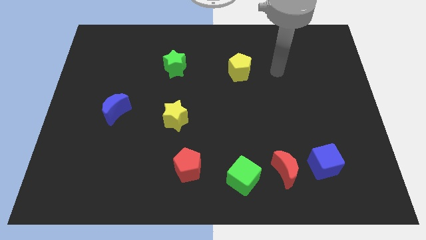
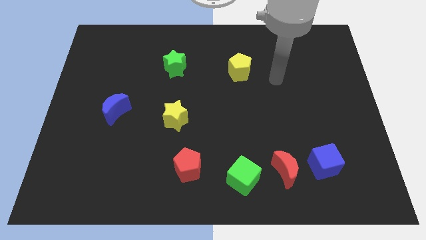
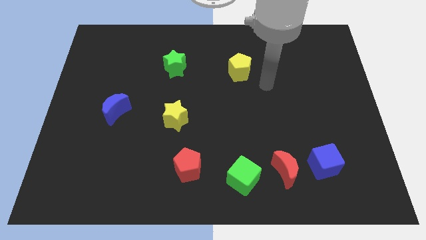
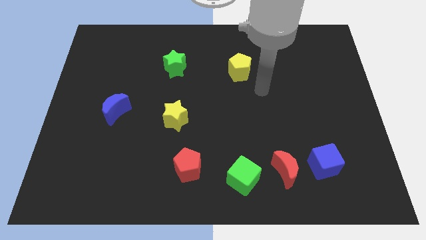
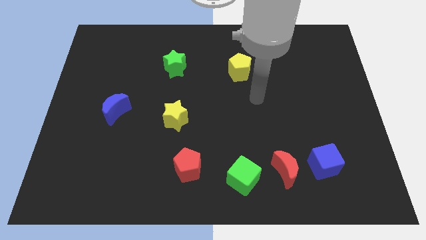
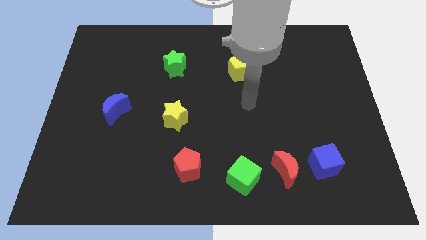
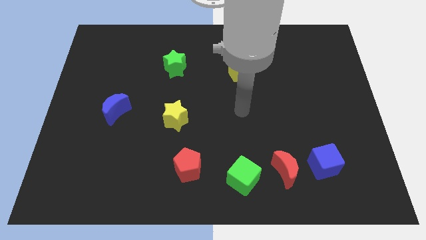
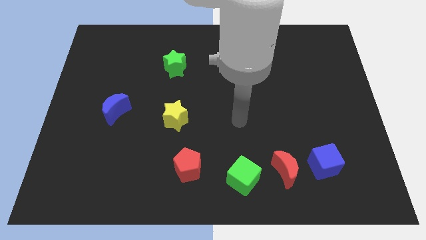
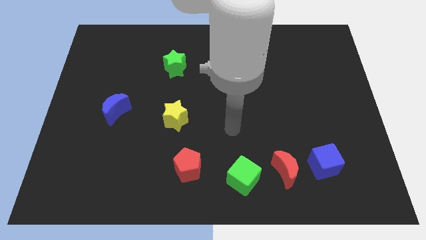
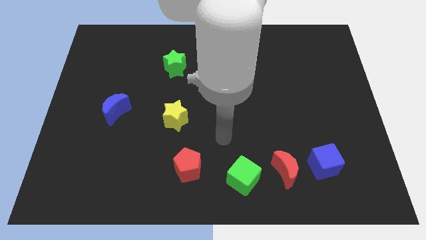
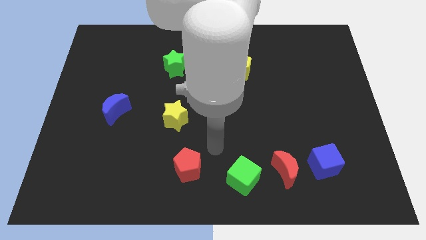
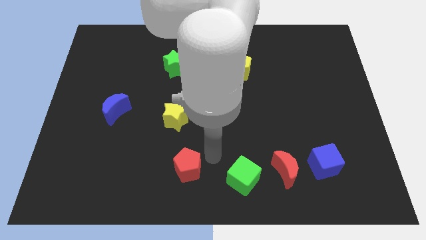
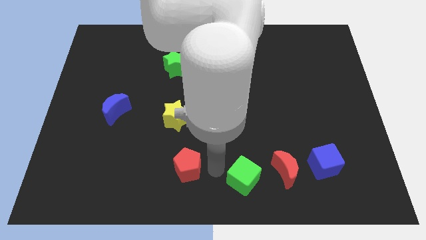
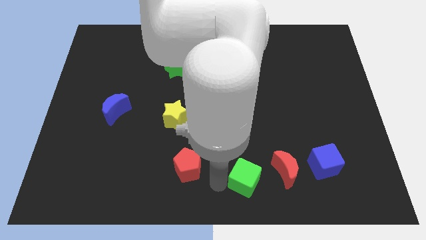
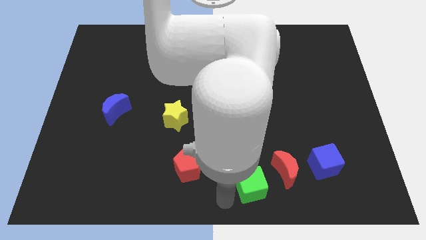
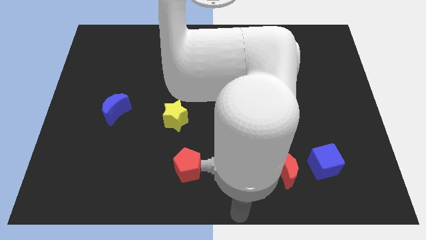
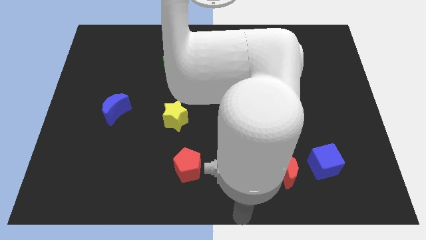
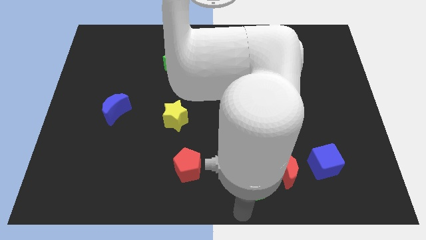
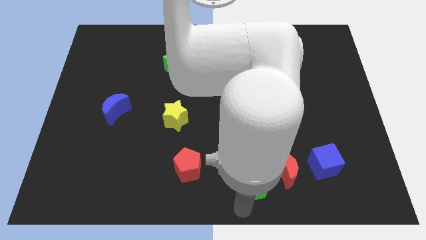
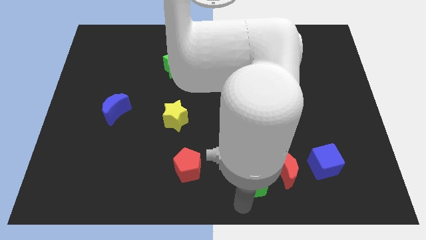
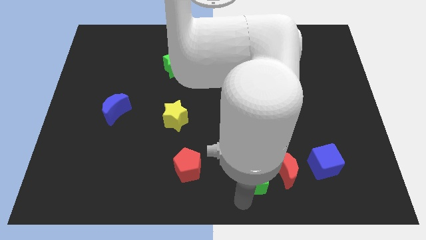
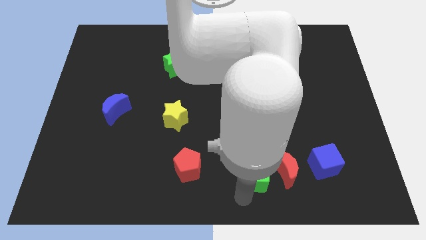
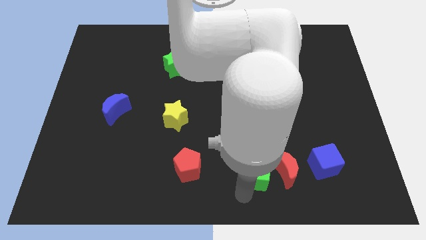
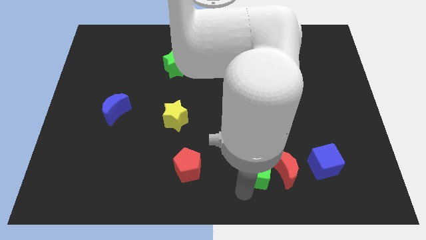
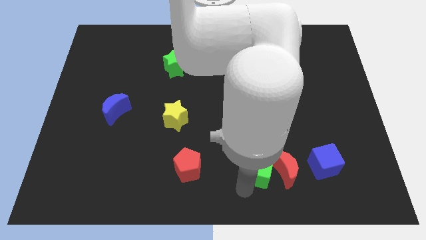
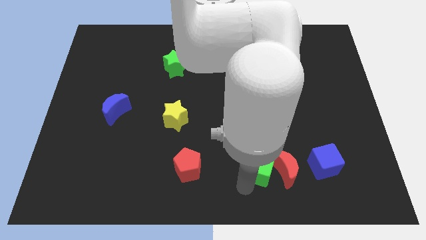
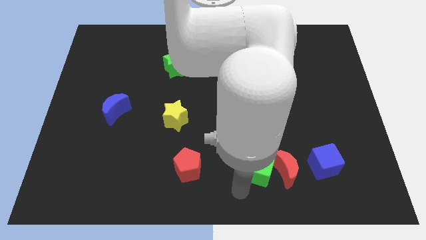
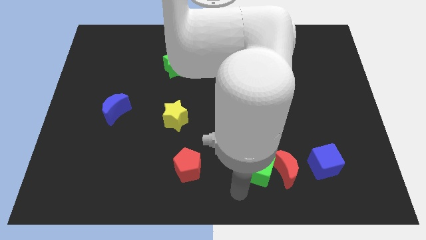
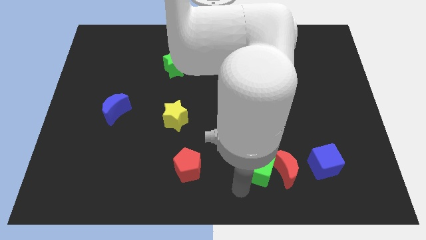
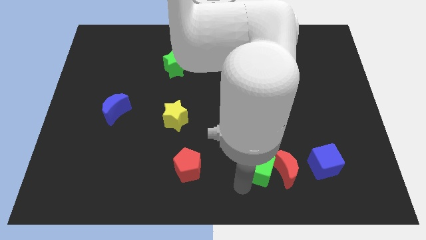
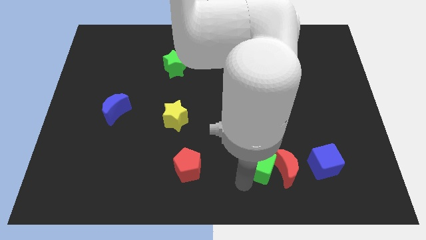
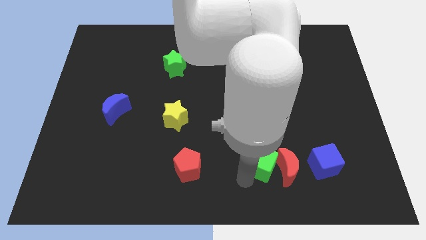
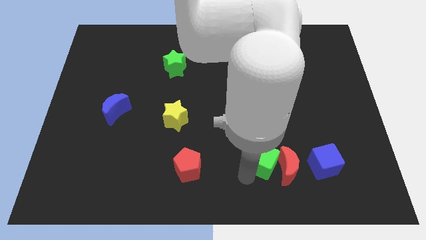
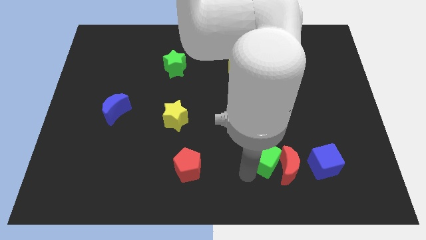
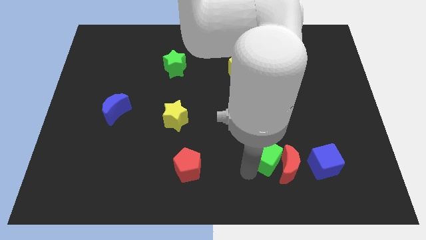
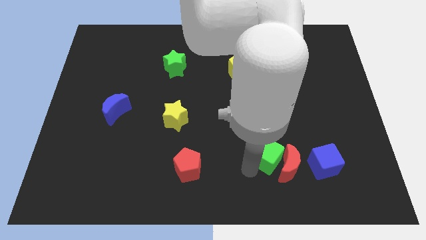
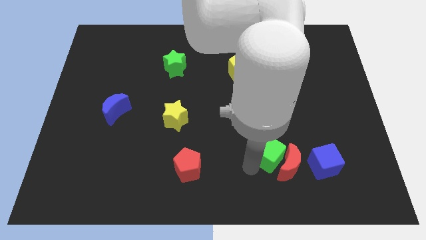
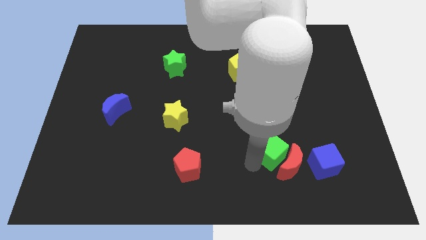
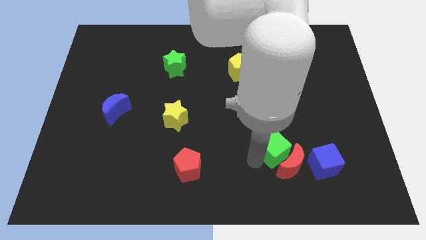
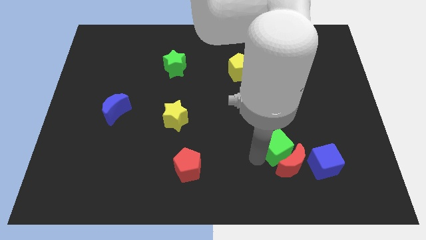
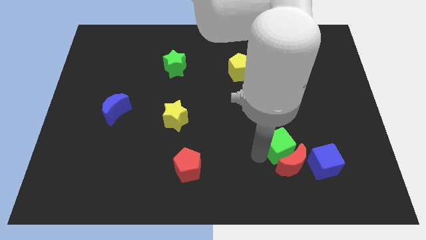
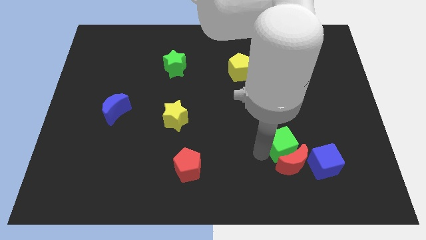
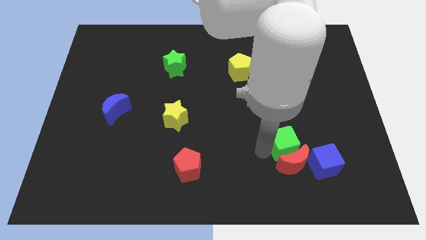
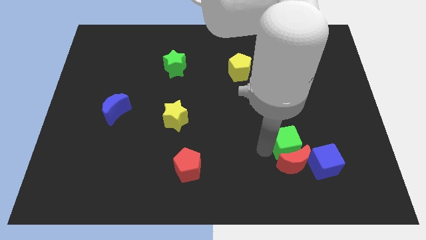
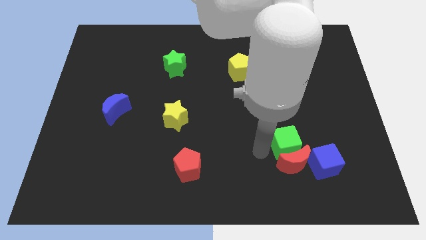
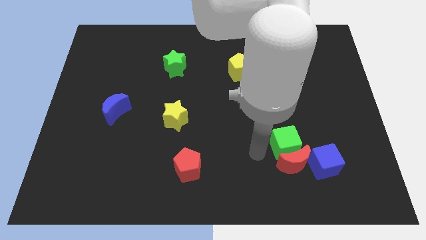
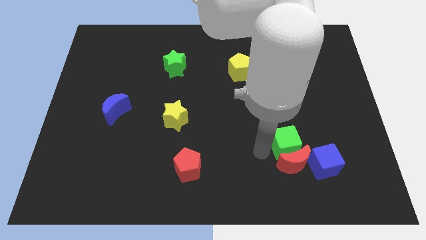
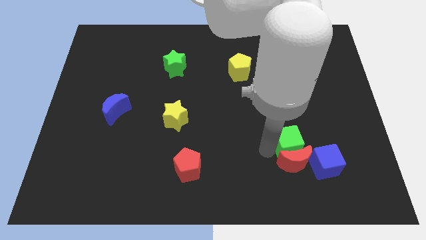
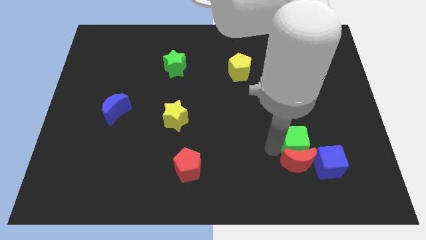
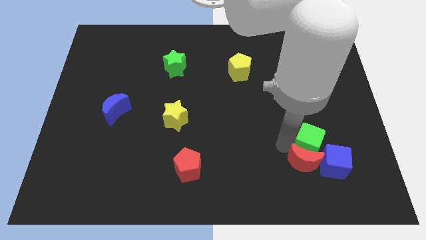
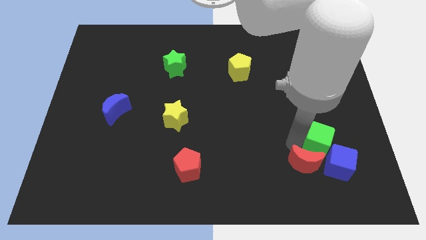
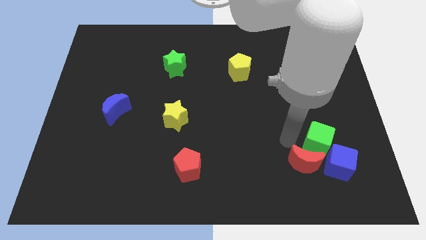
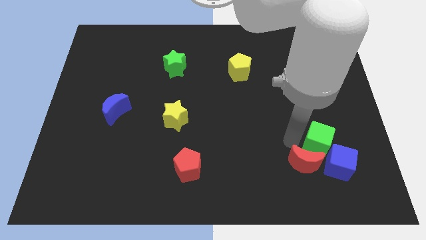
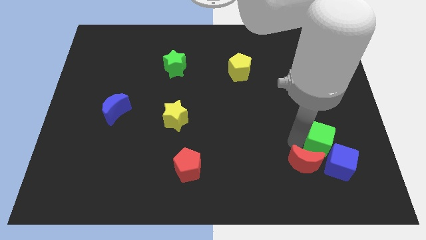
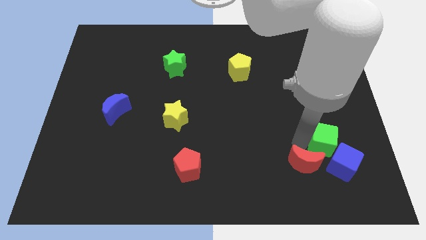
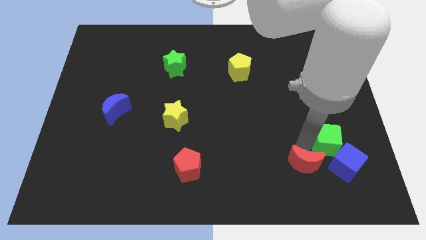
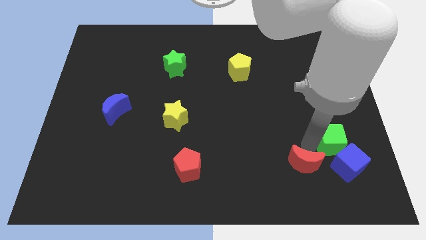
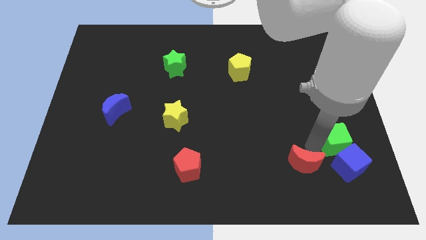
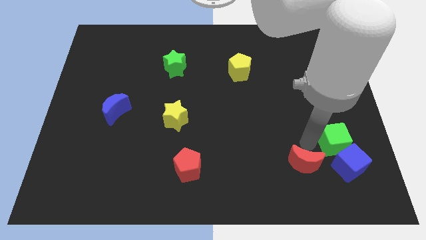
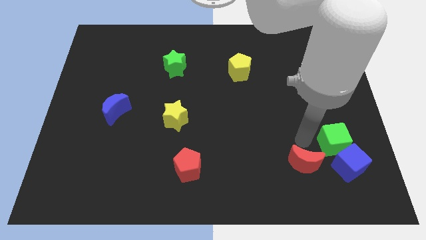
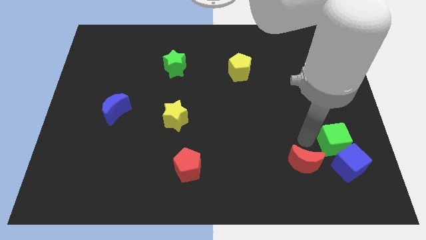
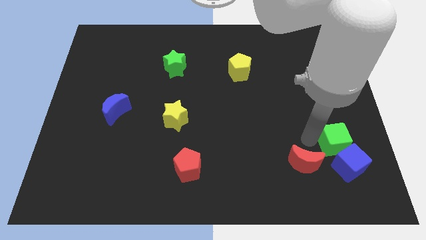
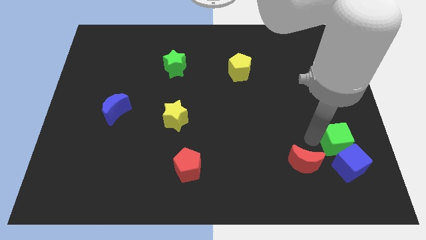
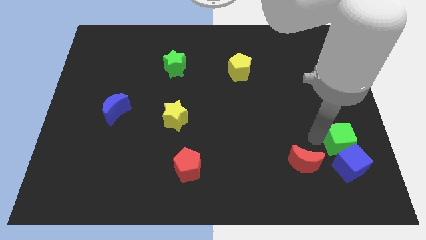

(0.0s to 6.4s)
push the green cube diagonally up and to the right of the blue cube
